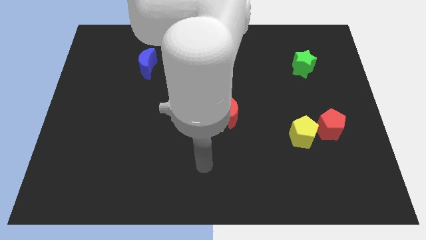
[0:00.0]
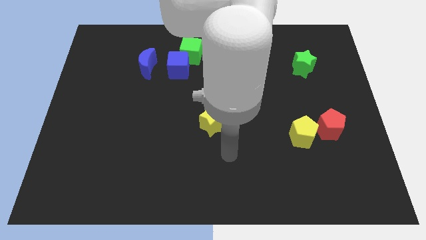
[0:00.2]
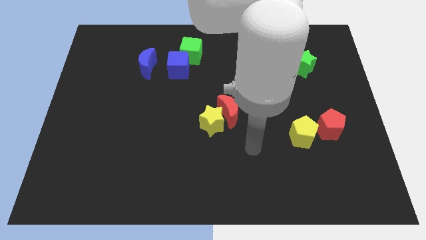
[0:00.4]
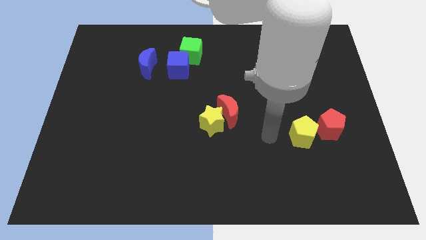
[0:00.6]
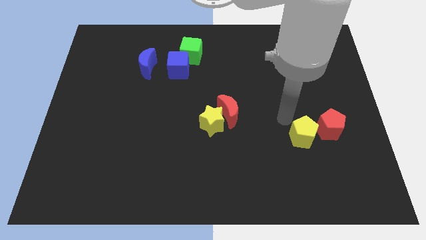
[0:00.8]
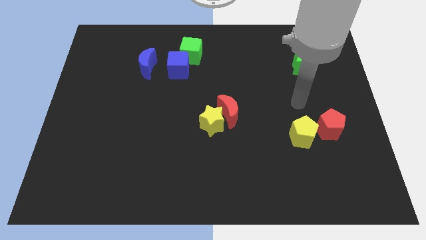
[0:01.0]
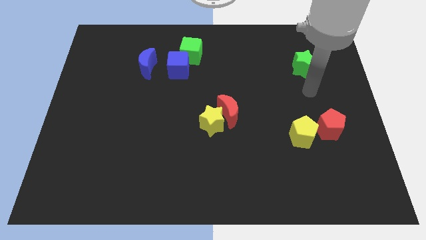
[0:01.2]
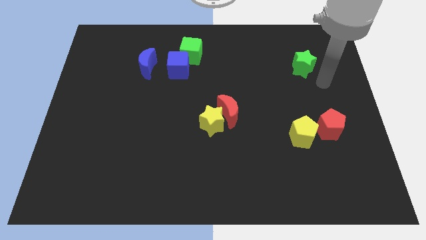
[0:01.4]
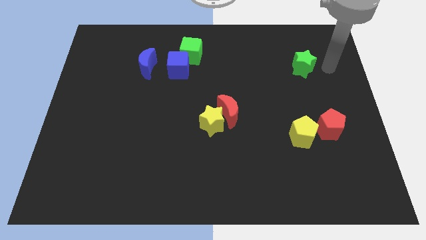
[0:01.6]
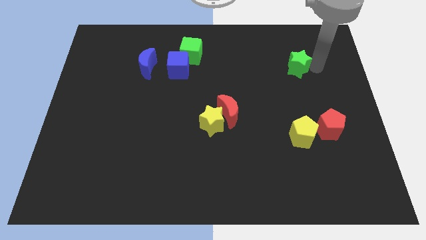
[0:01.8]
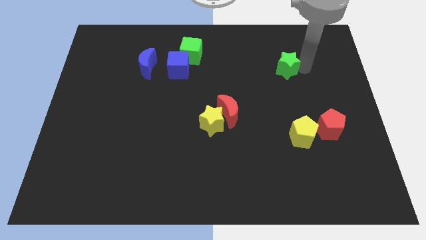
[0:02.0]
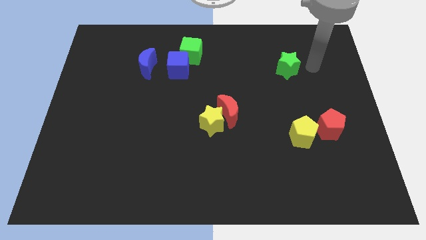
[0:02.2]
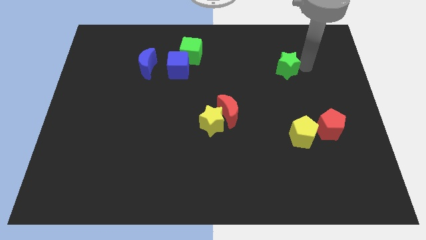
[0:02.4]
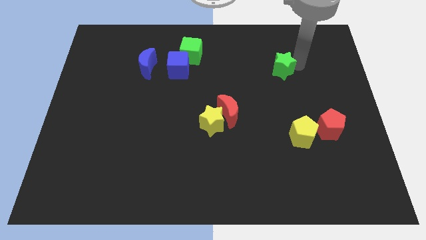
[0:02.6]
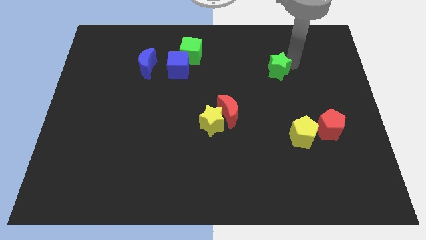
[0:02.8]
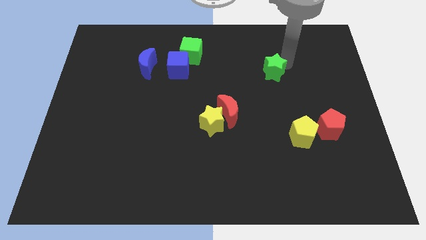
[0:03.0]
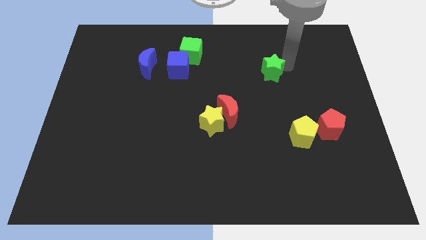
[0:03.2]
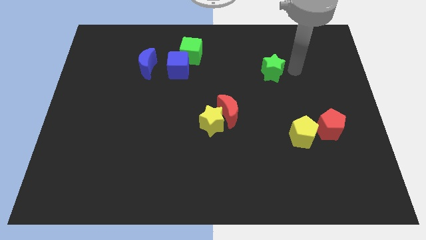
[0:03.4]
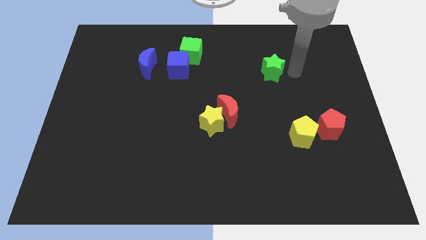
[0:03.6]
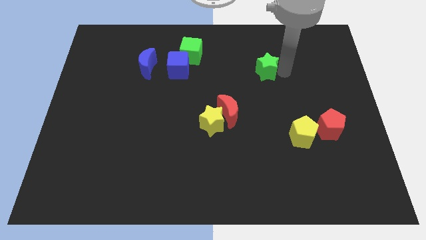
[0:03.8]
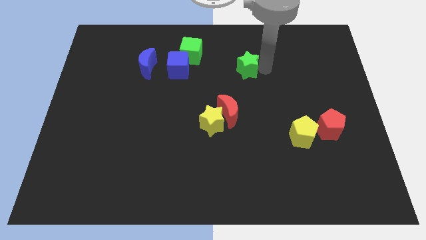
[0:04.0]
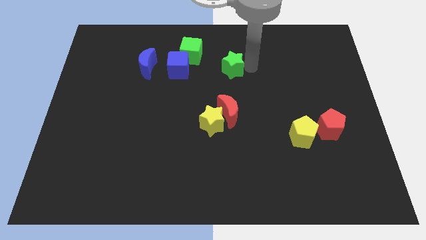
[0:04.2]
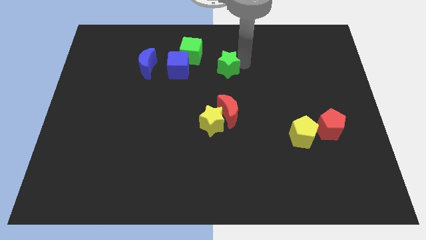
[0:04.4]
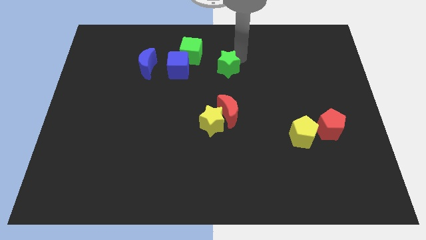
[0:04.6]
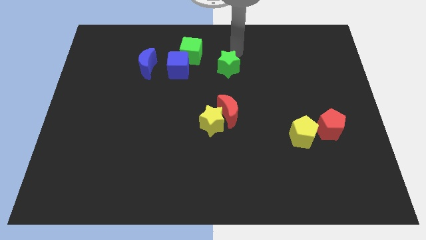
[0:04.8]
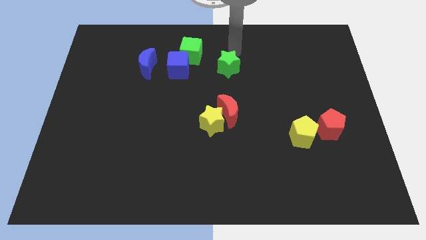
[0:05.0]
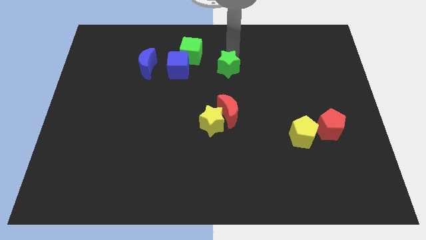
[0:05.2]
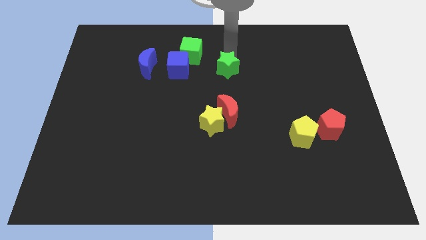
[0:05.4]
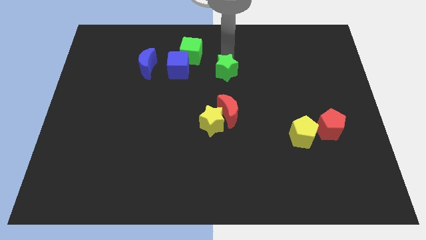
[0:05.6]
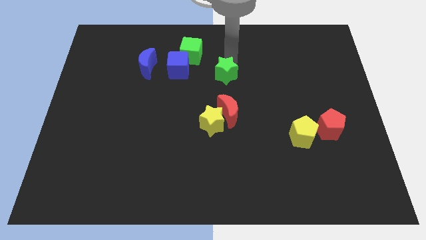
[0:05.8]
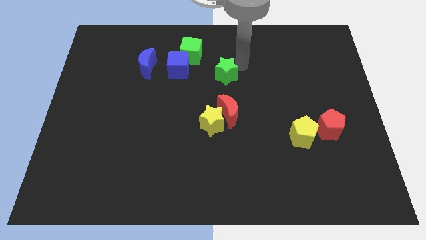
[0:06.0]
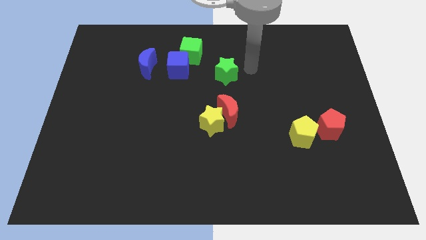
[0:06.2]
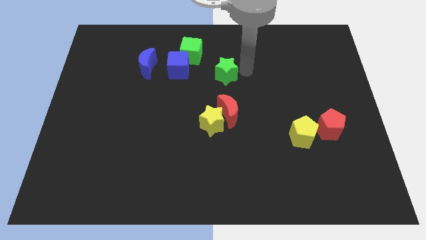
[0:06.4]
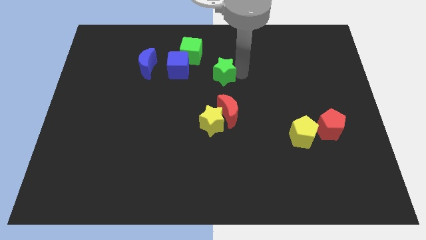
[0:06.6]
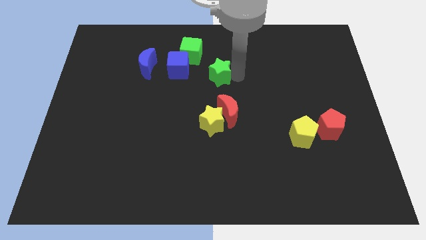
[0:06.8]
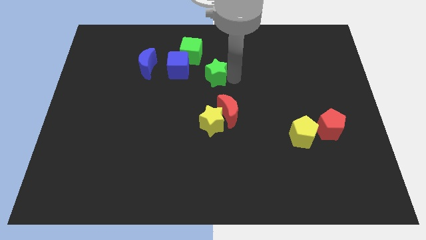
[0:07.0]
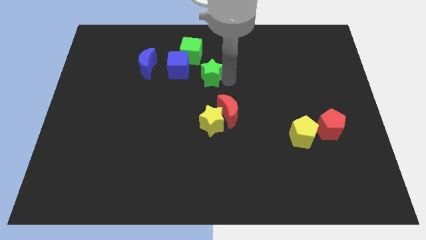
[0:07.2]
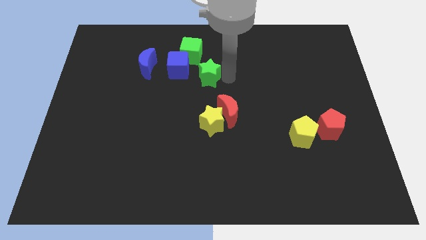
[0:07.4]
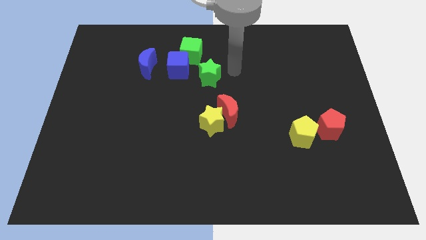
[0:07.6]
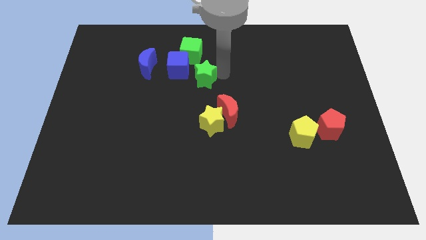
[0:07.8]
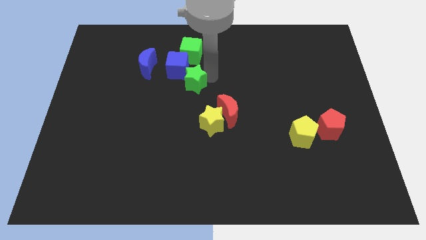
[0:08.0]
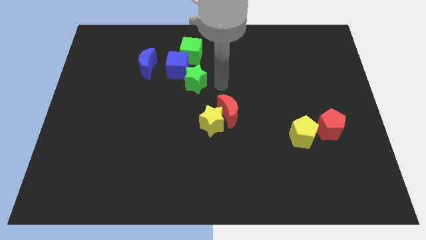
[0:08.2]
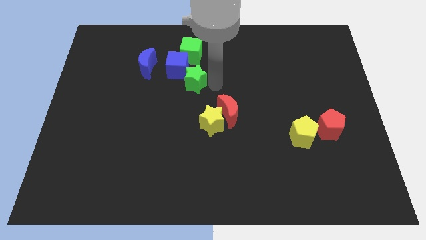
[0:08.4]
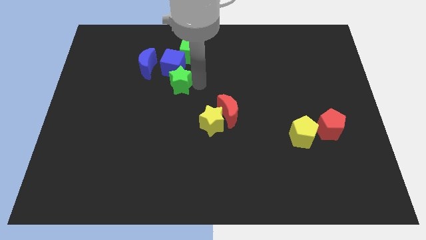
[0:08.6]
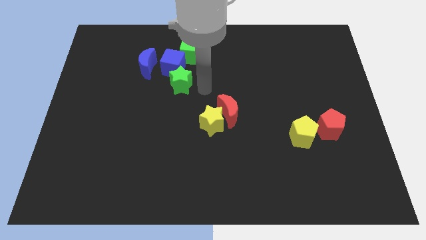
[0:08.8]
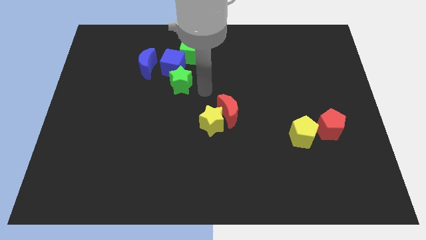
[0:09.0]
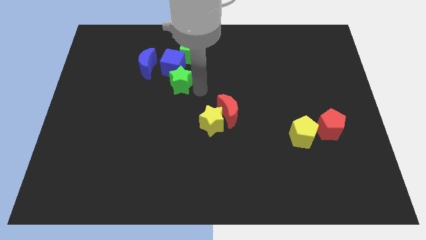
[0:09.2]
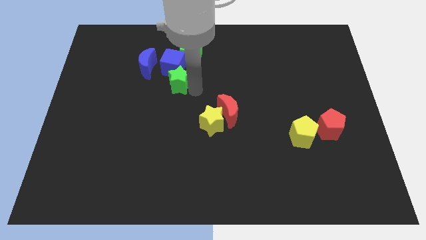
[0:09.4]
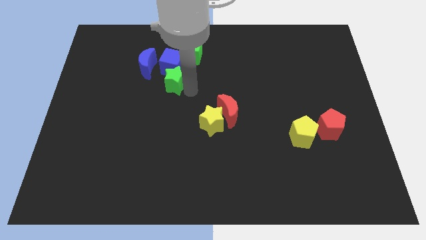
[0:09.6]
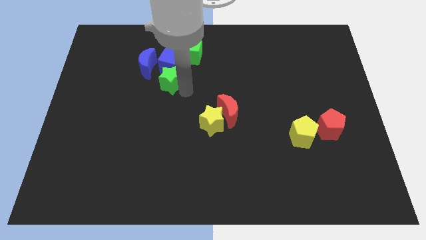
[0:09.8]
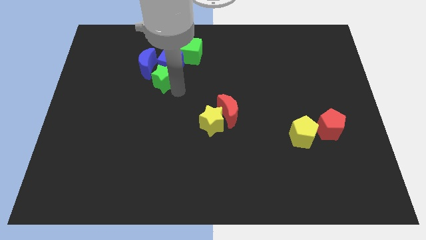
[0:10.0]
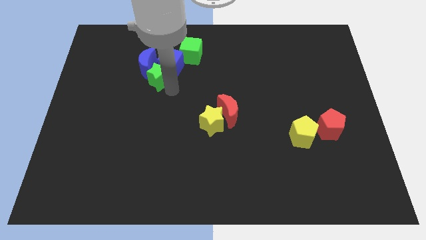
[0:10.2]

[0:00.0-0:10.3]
slide the green star close to the blue moon

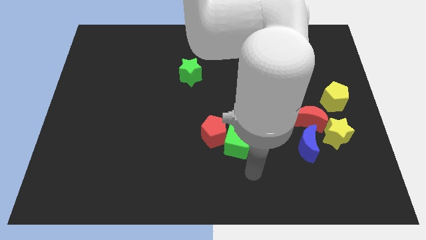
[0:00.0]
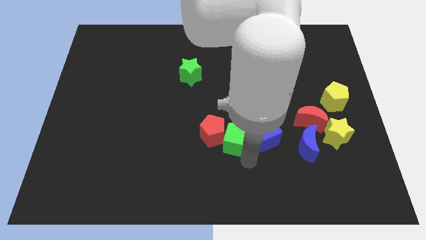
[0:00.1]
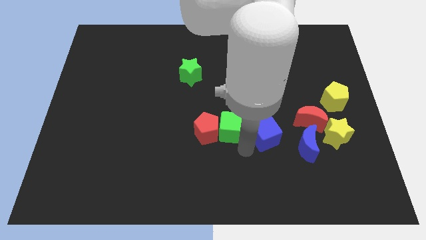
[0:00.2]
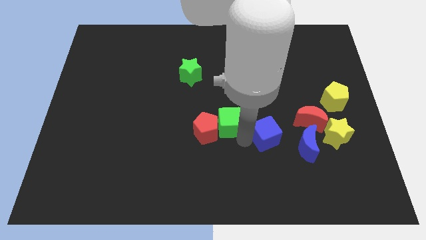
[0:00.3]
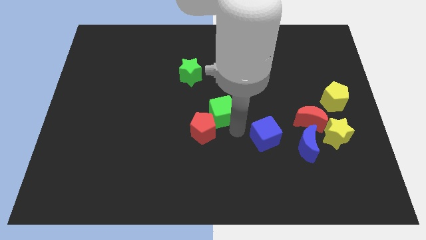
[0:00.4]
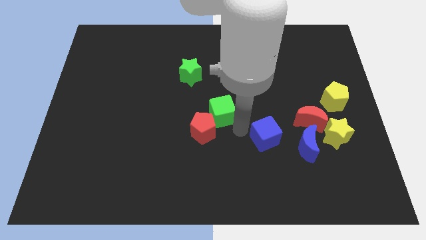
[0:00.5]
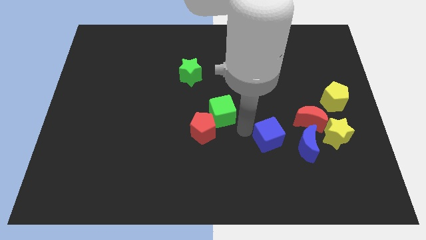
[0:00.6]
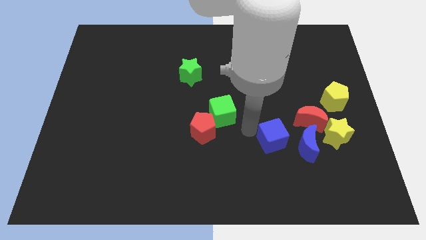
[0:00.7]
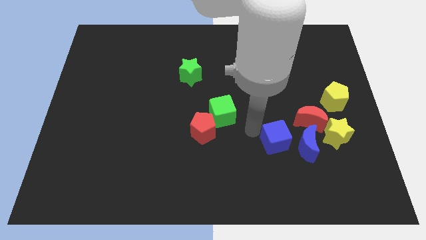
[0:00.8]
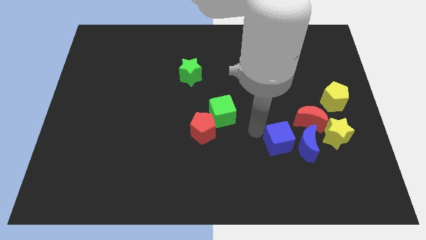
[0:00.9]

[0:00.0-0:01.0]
put the blue cube next to the blue moon
